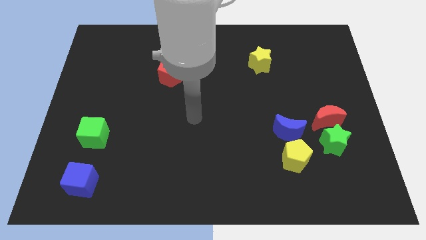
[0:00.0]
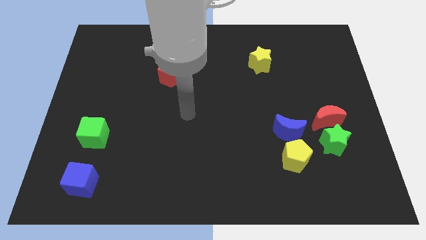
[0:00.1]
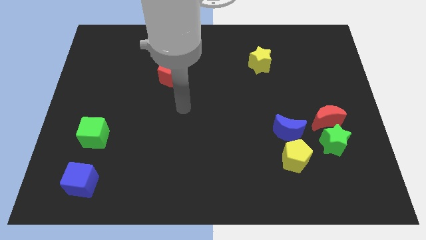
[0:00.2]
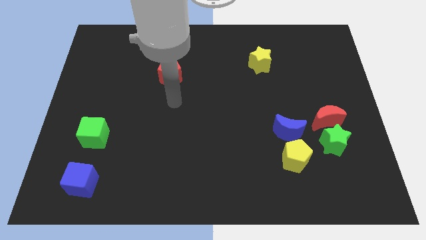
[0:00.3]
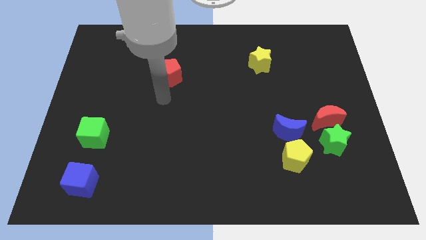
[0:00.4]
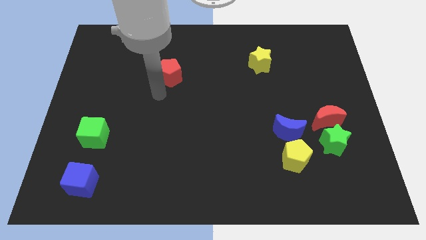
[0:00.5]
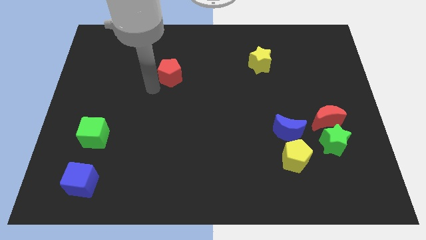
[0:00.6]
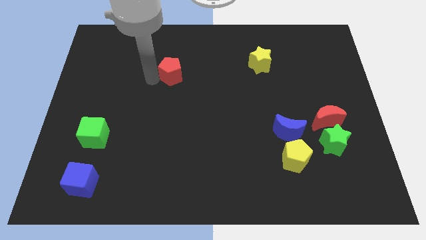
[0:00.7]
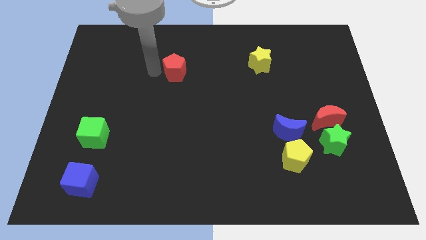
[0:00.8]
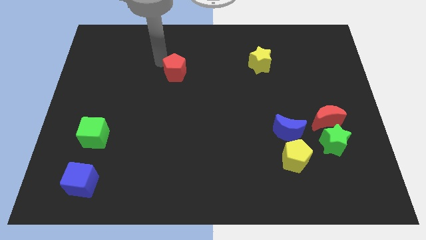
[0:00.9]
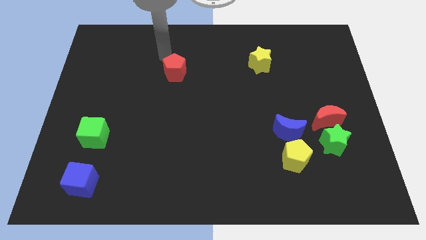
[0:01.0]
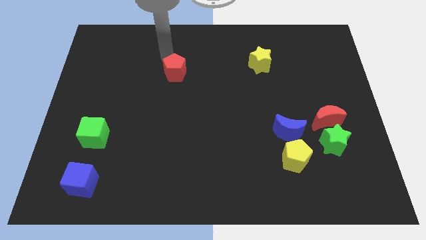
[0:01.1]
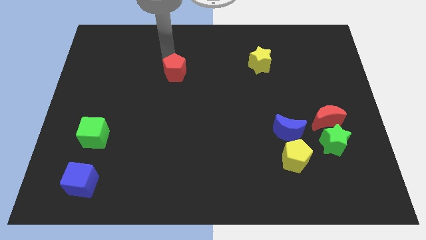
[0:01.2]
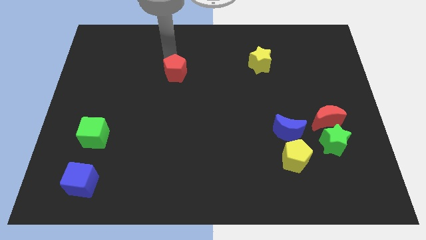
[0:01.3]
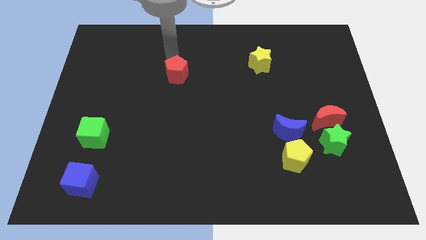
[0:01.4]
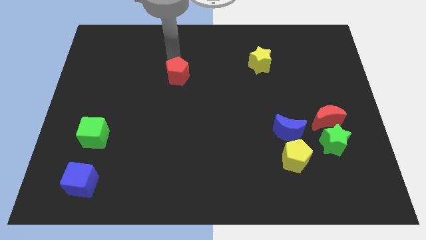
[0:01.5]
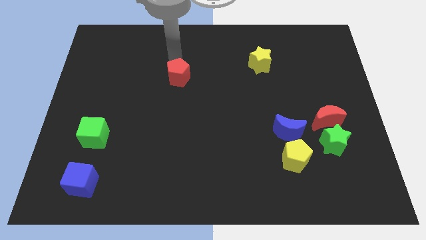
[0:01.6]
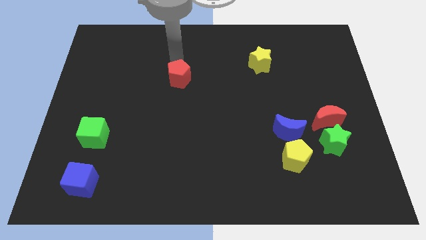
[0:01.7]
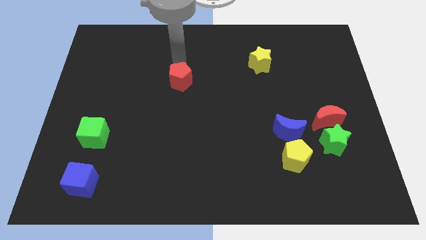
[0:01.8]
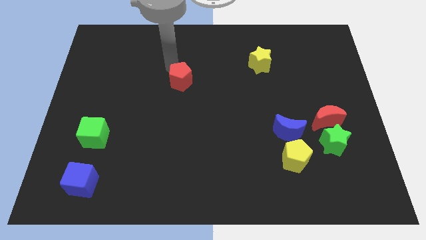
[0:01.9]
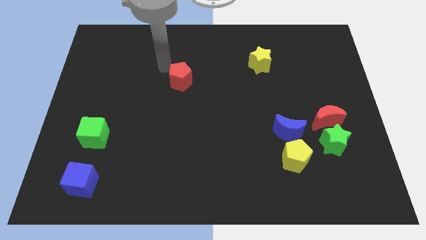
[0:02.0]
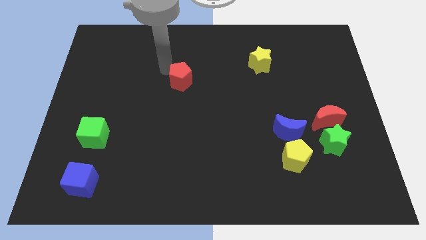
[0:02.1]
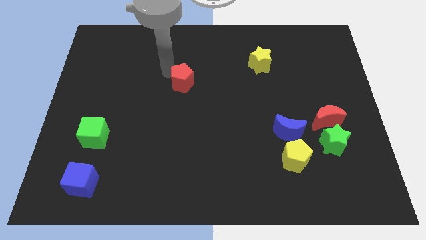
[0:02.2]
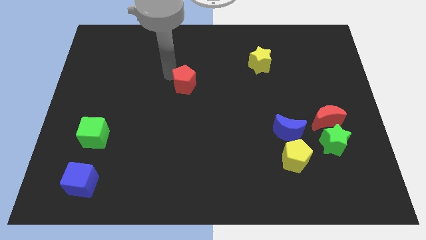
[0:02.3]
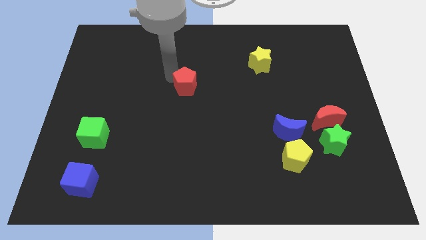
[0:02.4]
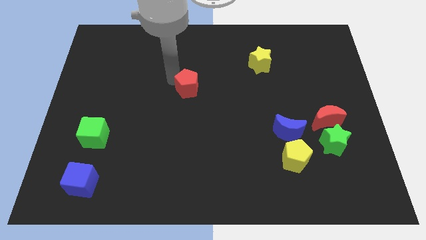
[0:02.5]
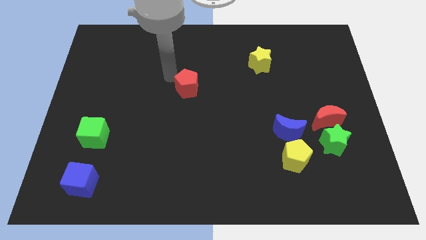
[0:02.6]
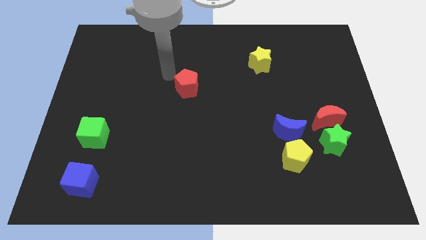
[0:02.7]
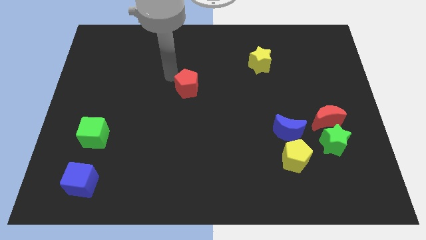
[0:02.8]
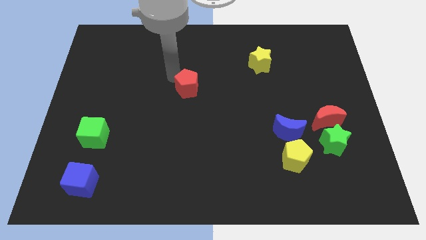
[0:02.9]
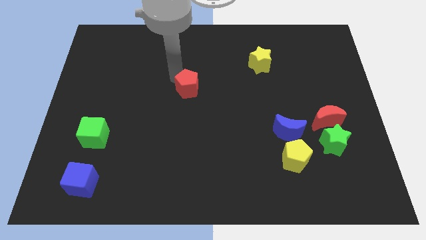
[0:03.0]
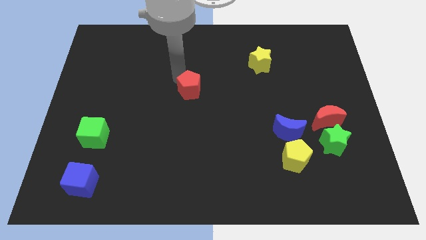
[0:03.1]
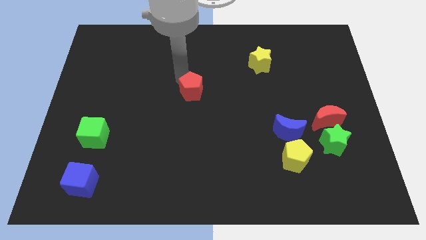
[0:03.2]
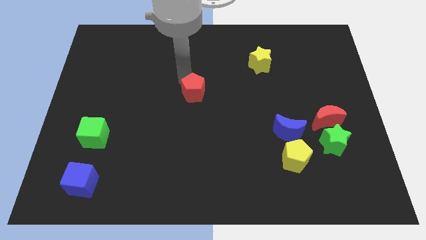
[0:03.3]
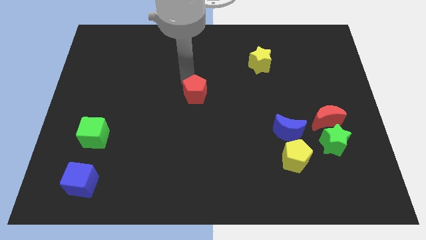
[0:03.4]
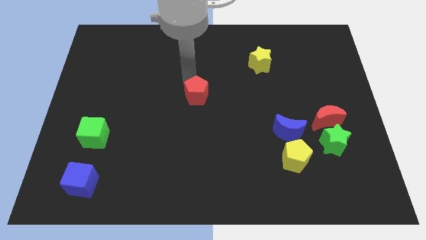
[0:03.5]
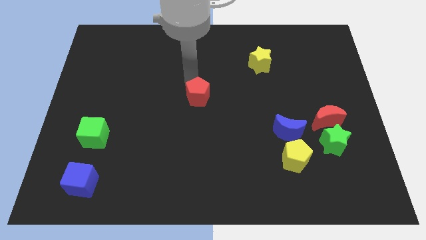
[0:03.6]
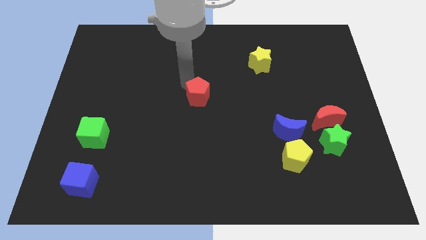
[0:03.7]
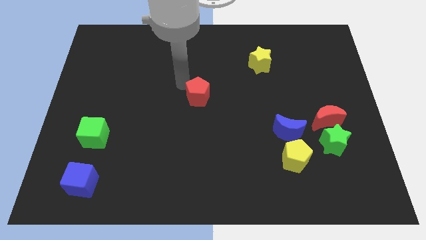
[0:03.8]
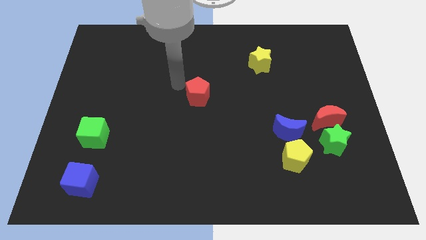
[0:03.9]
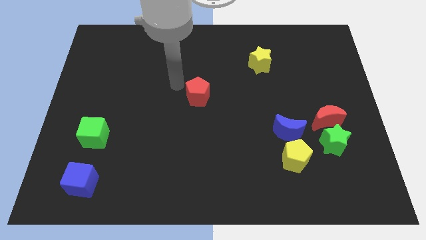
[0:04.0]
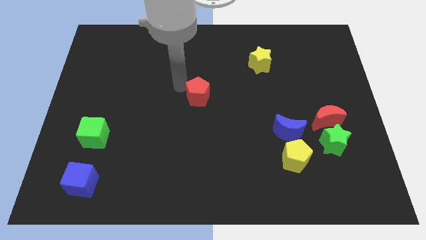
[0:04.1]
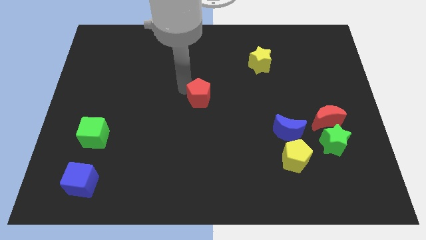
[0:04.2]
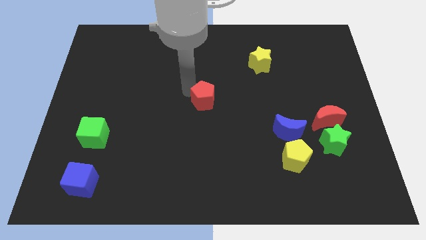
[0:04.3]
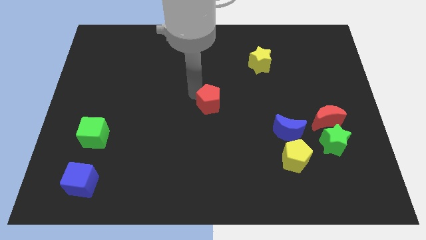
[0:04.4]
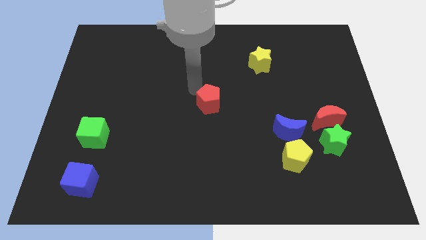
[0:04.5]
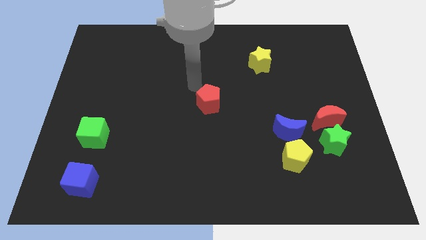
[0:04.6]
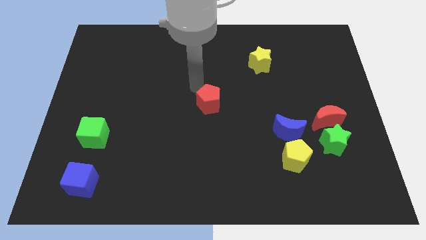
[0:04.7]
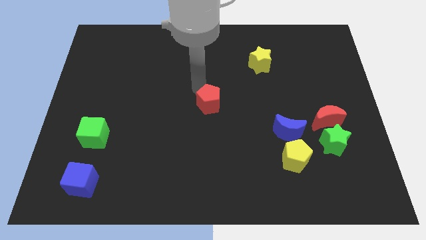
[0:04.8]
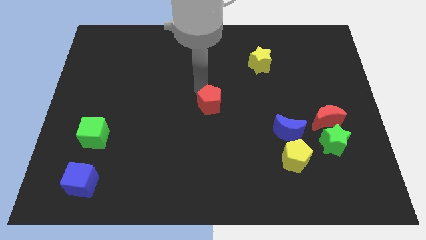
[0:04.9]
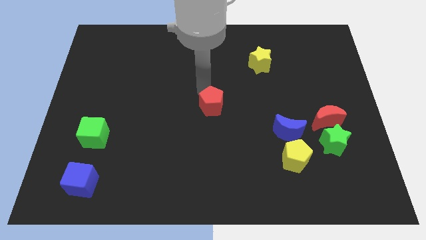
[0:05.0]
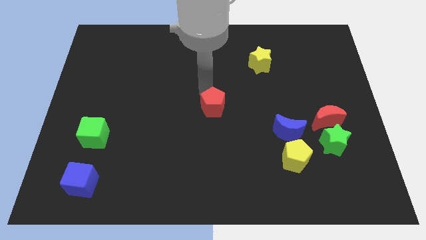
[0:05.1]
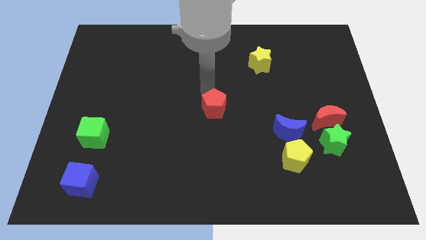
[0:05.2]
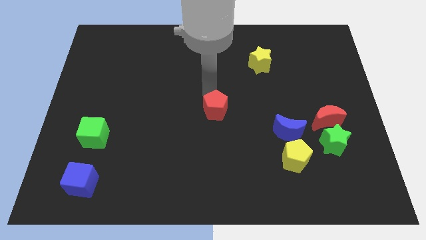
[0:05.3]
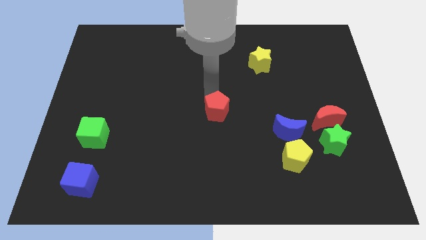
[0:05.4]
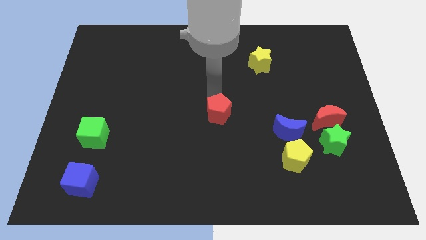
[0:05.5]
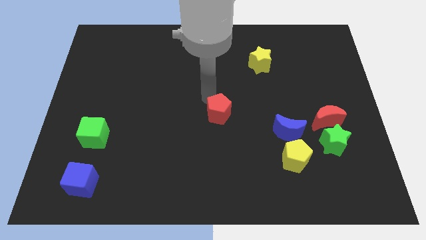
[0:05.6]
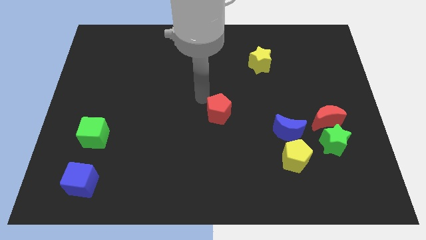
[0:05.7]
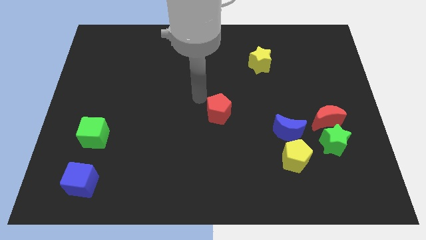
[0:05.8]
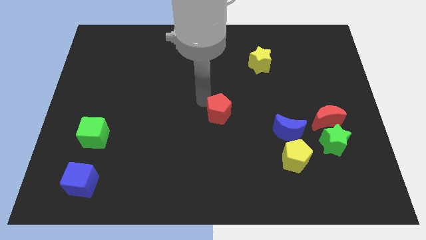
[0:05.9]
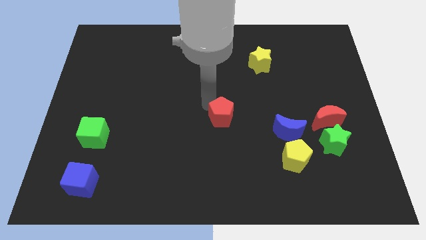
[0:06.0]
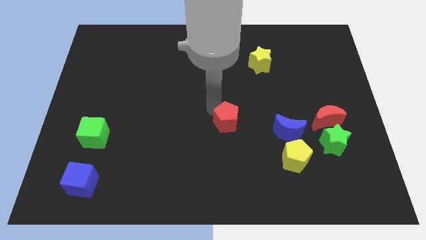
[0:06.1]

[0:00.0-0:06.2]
slide the red pentagon down and then to the right

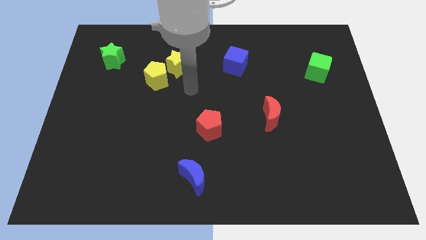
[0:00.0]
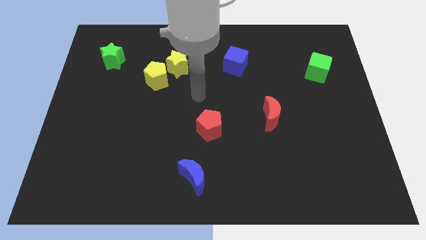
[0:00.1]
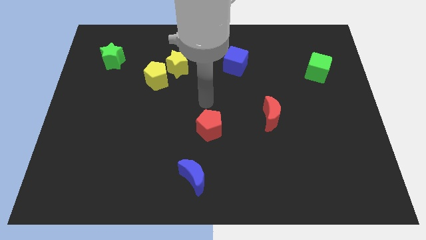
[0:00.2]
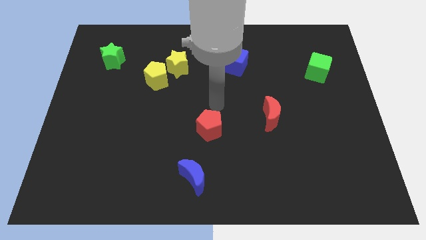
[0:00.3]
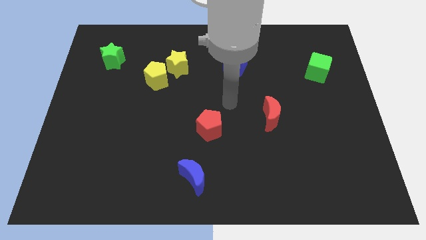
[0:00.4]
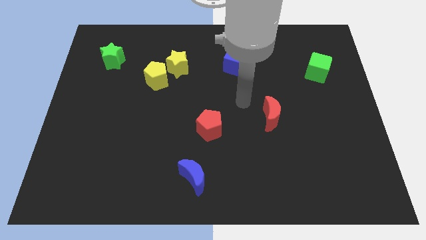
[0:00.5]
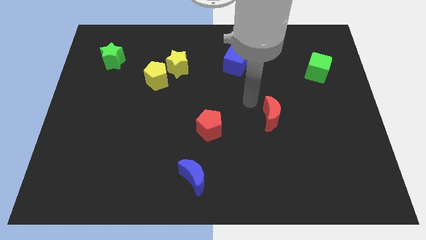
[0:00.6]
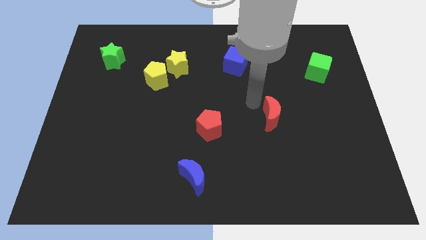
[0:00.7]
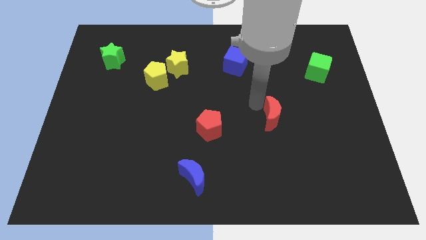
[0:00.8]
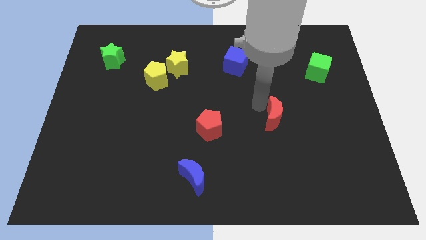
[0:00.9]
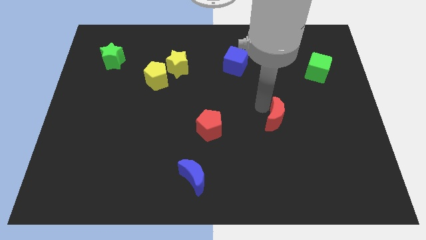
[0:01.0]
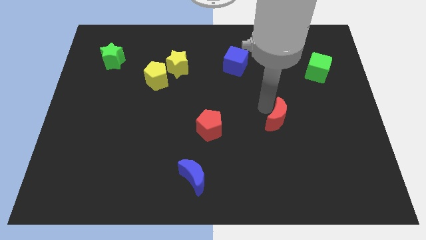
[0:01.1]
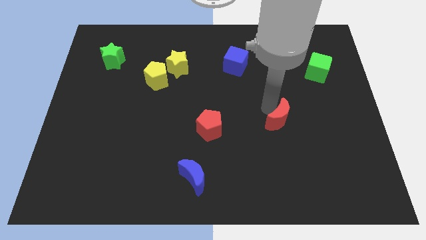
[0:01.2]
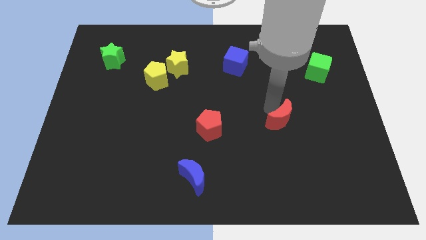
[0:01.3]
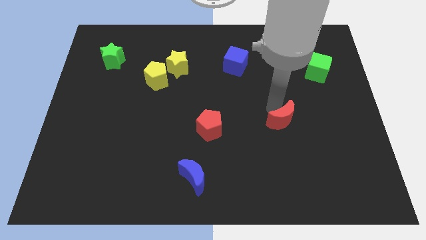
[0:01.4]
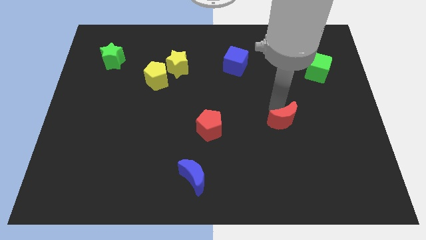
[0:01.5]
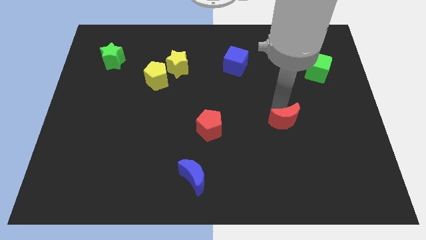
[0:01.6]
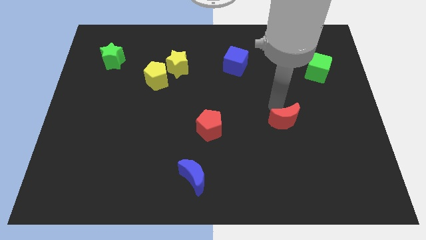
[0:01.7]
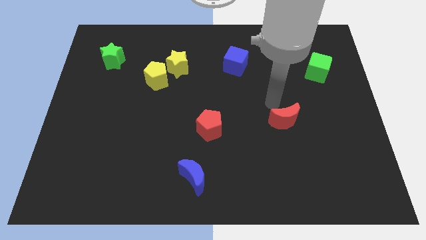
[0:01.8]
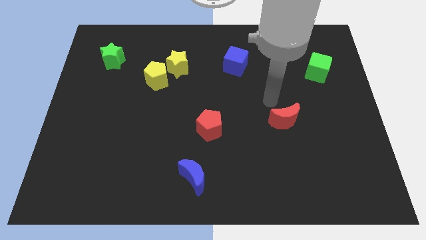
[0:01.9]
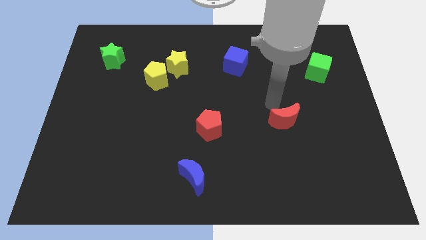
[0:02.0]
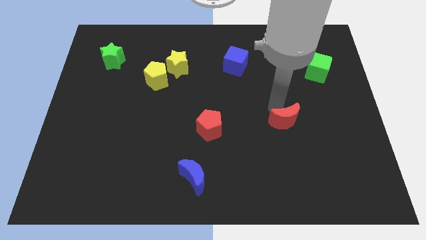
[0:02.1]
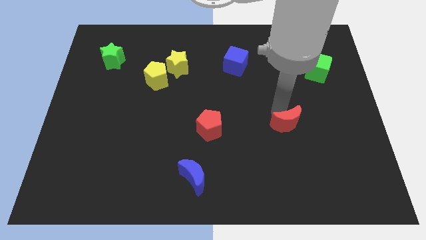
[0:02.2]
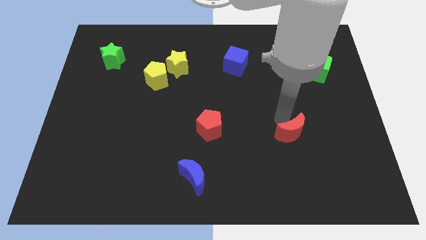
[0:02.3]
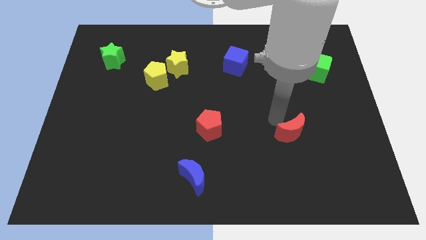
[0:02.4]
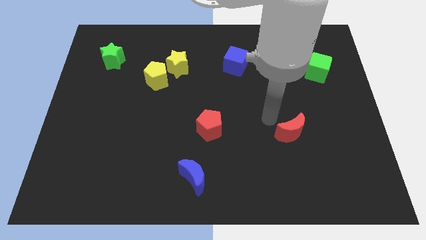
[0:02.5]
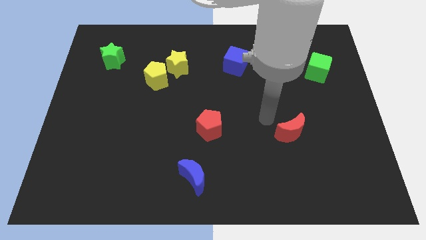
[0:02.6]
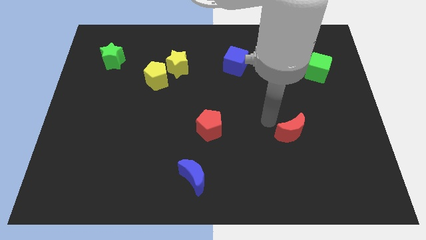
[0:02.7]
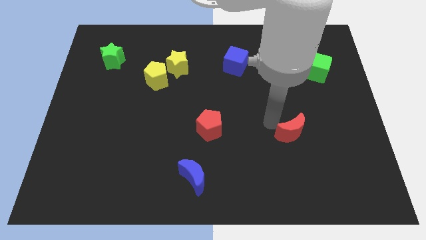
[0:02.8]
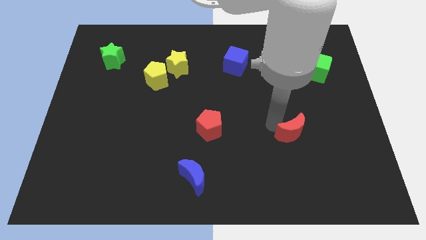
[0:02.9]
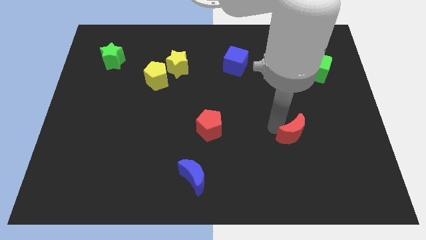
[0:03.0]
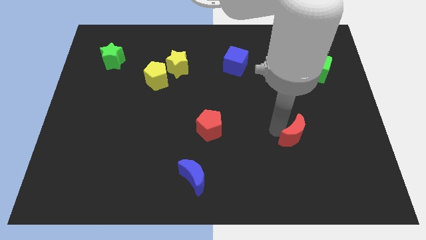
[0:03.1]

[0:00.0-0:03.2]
move the red moon a little bit downwards and then right
